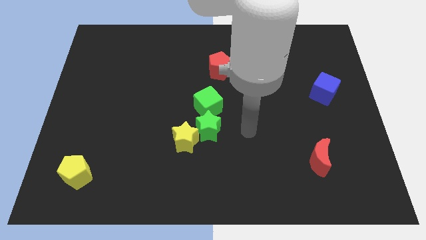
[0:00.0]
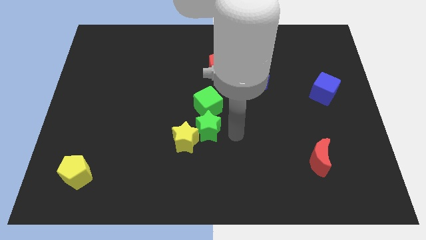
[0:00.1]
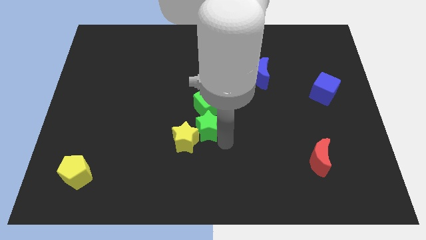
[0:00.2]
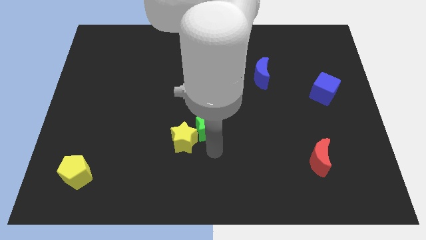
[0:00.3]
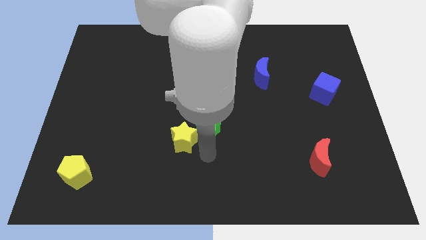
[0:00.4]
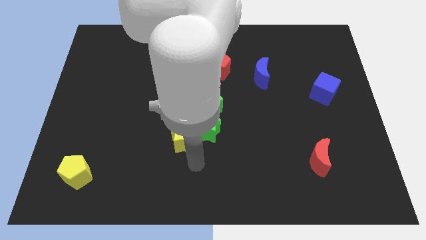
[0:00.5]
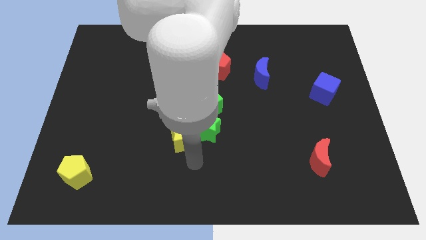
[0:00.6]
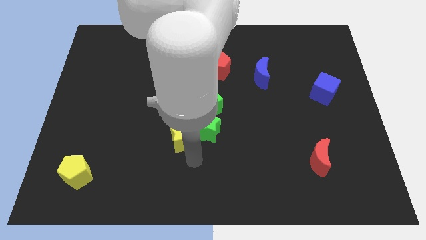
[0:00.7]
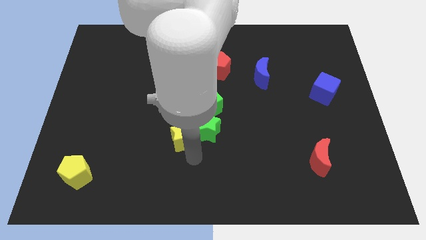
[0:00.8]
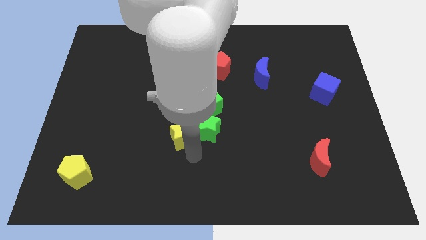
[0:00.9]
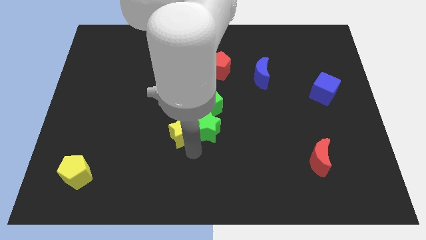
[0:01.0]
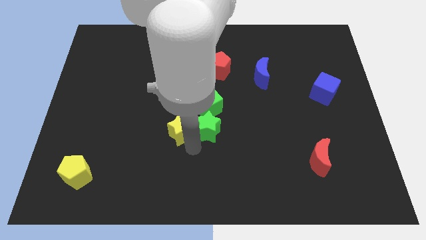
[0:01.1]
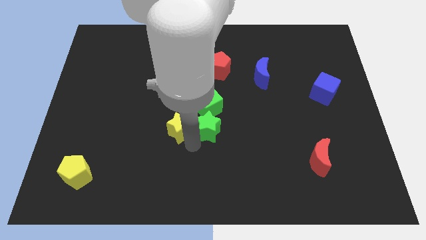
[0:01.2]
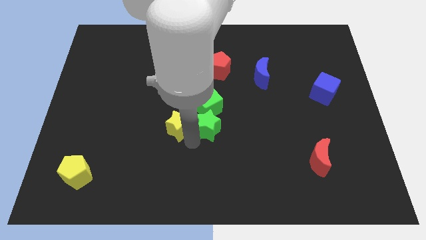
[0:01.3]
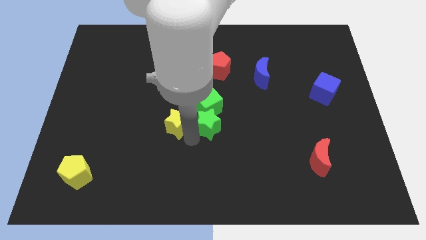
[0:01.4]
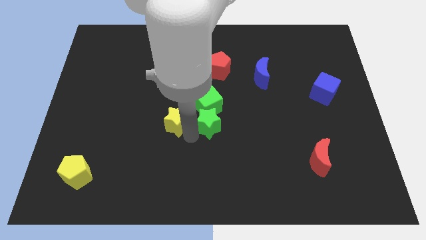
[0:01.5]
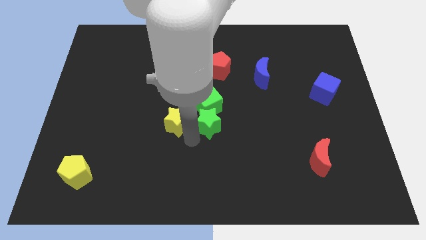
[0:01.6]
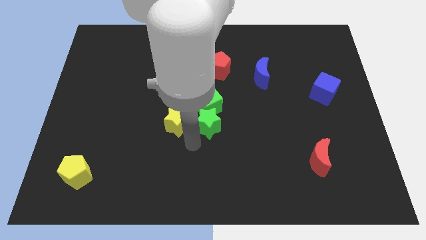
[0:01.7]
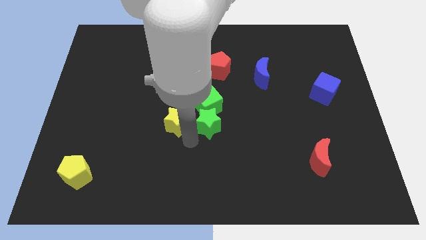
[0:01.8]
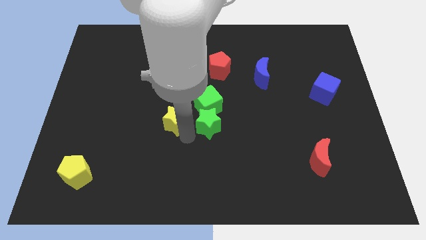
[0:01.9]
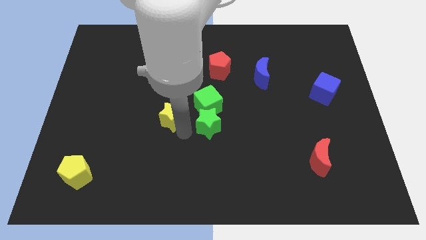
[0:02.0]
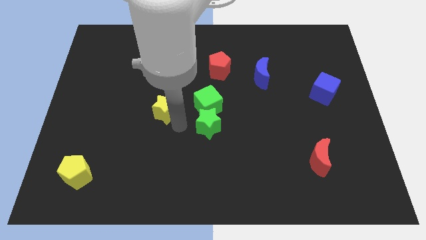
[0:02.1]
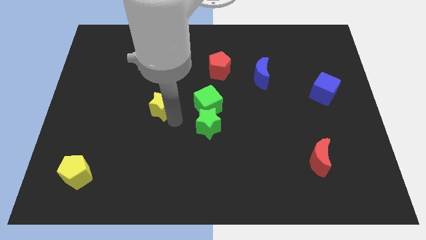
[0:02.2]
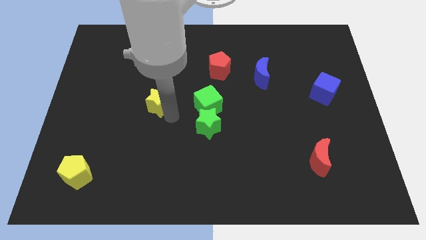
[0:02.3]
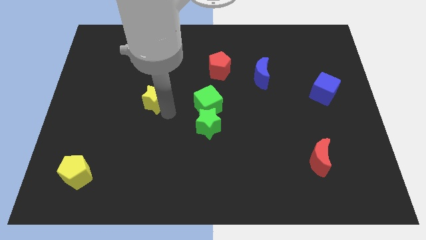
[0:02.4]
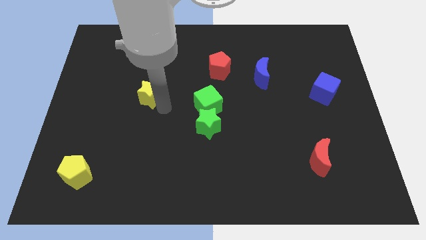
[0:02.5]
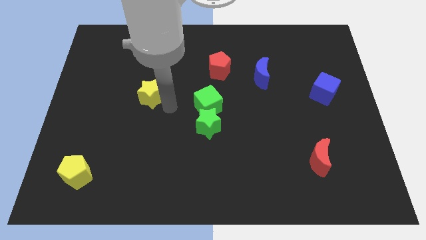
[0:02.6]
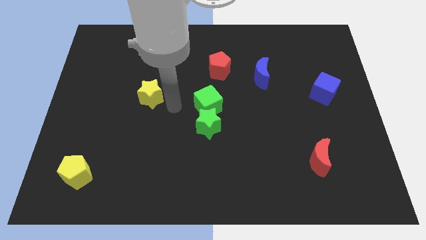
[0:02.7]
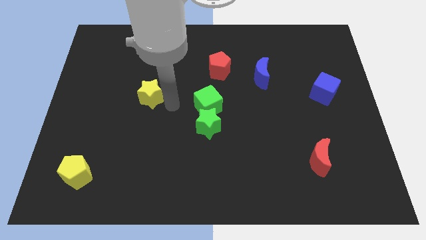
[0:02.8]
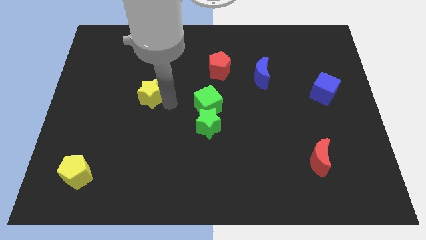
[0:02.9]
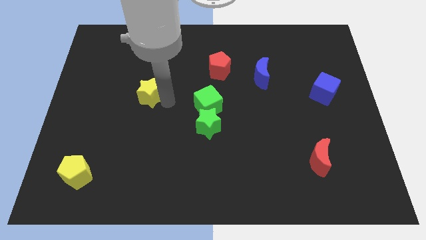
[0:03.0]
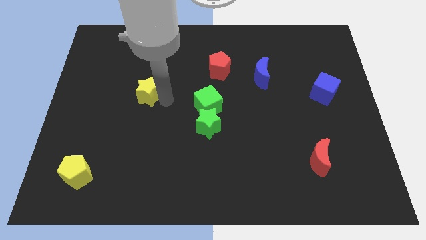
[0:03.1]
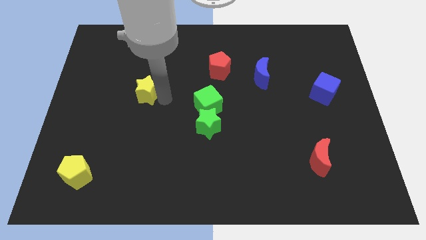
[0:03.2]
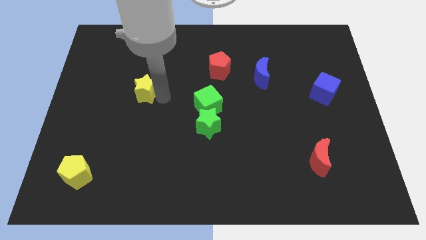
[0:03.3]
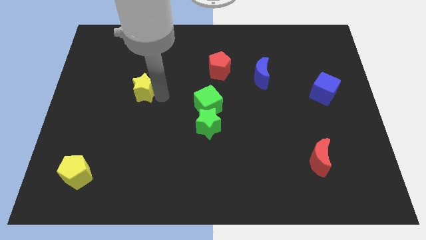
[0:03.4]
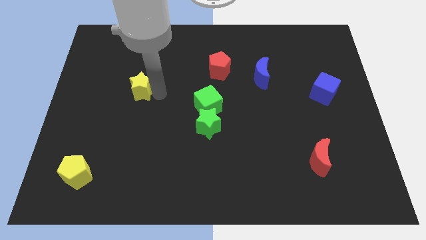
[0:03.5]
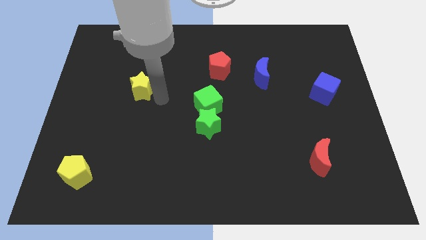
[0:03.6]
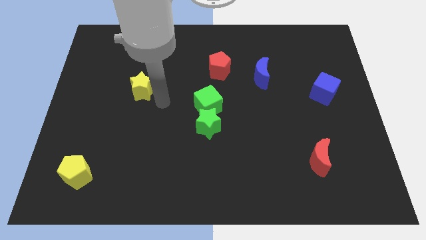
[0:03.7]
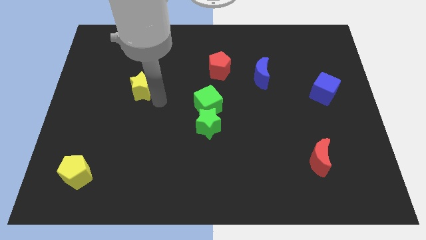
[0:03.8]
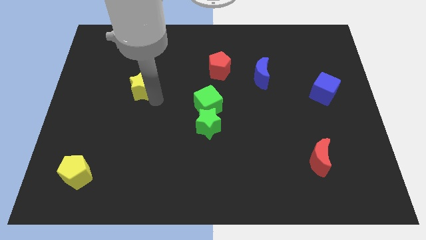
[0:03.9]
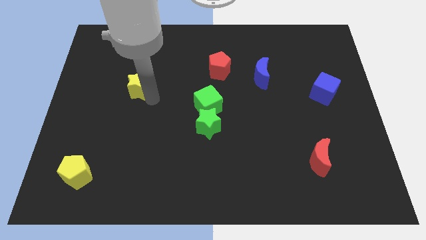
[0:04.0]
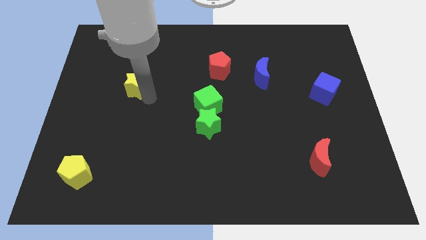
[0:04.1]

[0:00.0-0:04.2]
move the yellow star up and left

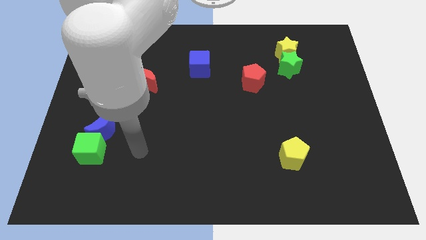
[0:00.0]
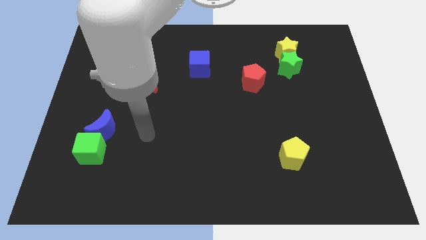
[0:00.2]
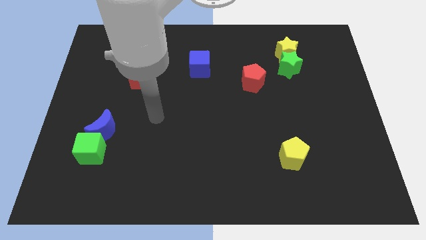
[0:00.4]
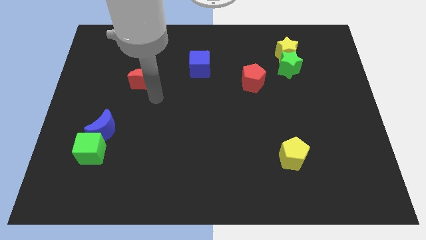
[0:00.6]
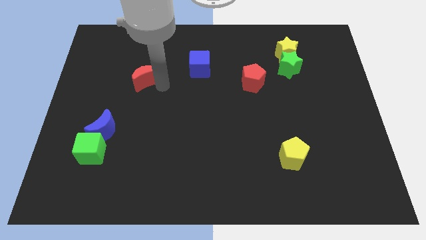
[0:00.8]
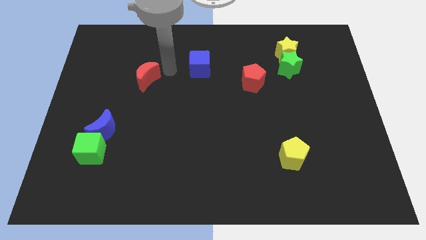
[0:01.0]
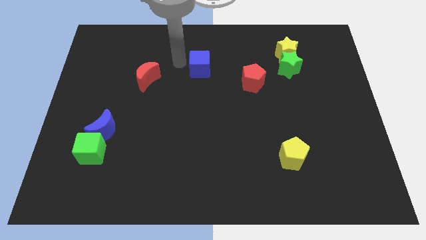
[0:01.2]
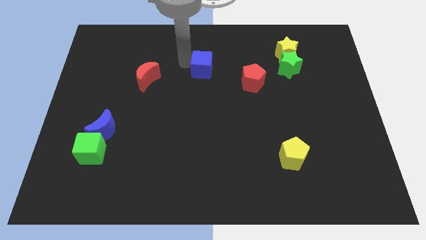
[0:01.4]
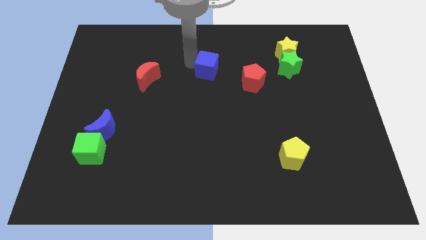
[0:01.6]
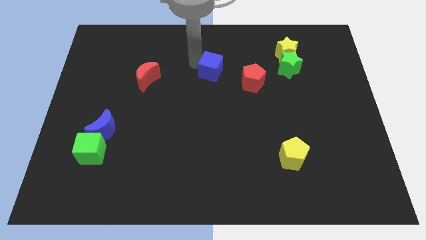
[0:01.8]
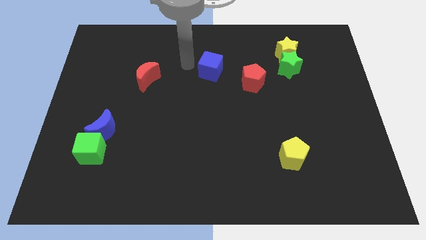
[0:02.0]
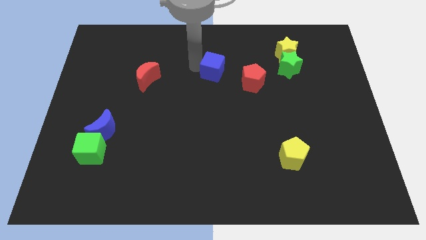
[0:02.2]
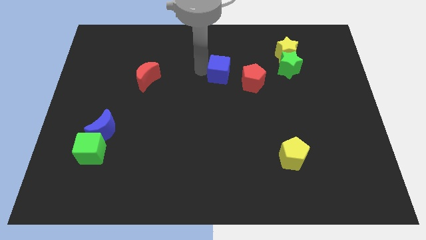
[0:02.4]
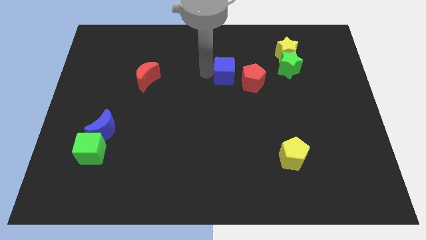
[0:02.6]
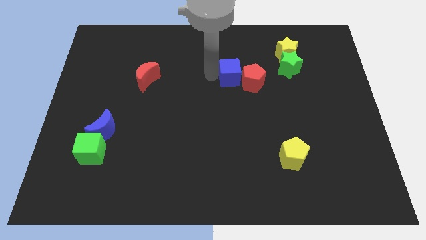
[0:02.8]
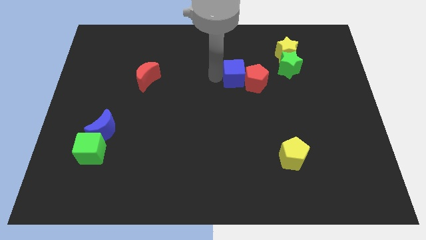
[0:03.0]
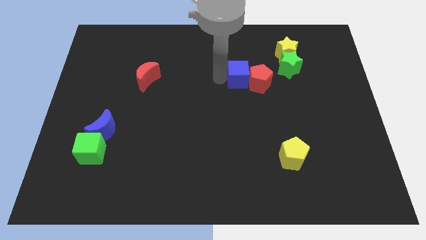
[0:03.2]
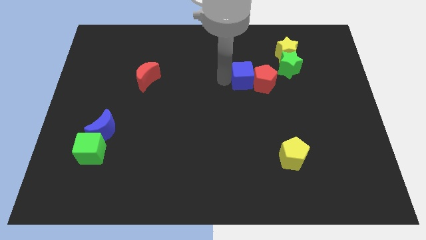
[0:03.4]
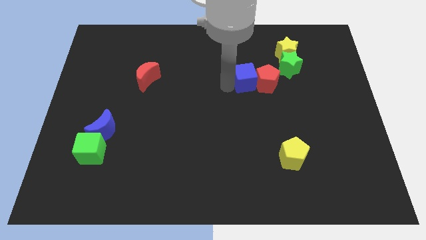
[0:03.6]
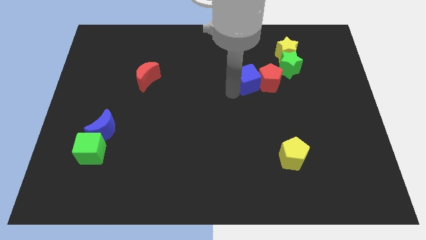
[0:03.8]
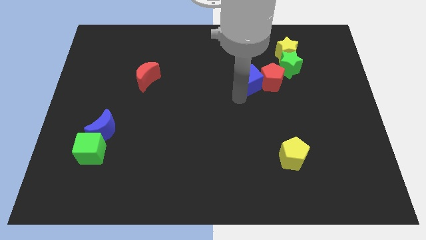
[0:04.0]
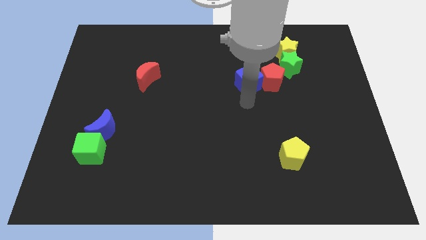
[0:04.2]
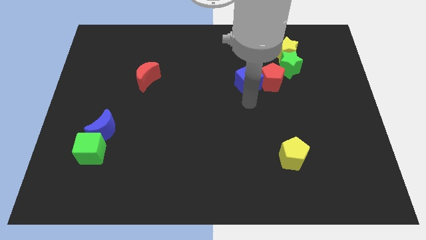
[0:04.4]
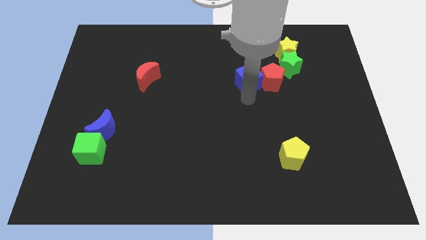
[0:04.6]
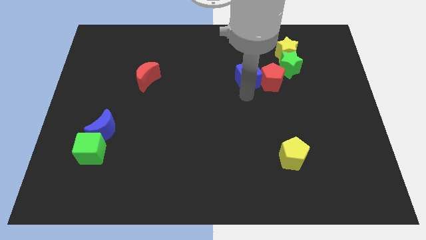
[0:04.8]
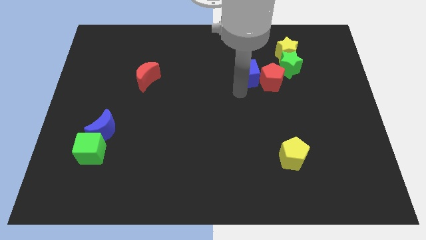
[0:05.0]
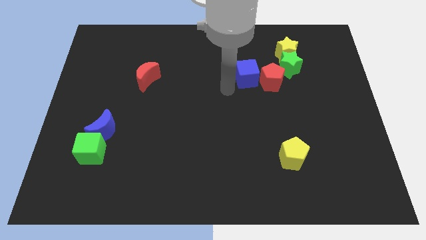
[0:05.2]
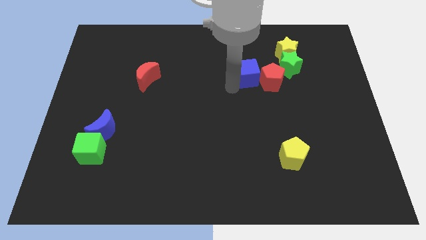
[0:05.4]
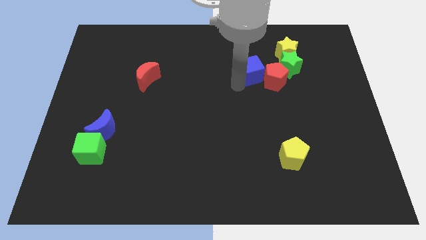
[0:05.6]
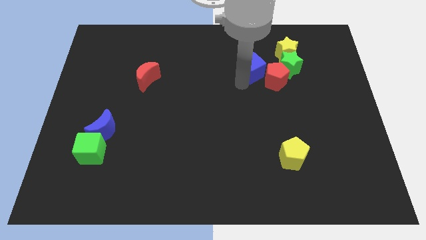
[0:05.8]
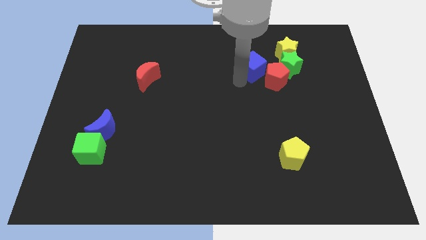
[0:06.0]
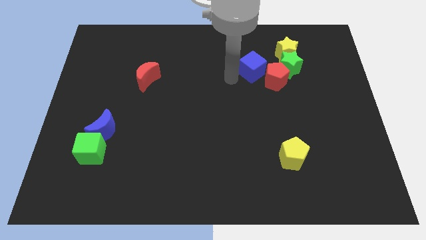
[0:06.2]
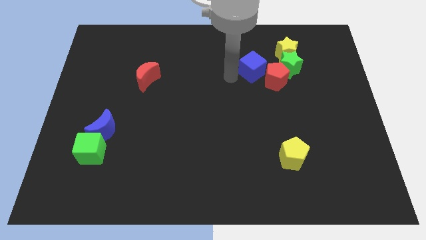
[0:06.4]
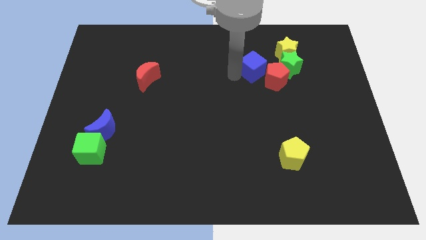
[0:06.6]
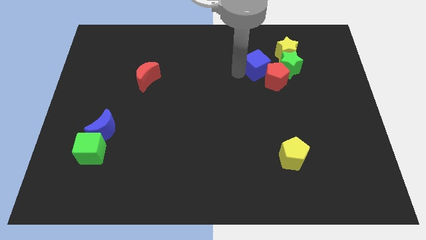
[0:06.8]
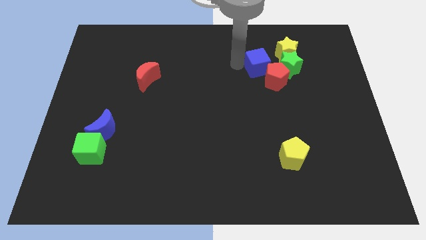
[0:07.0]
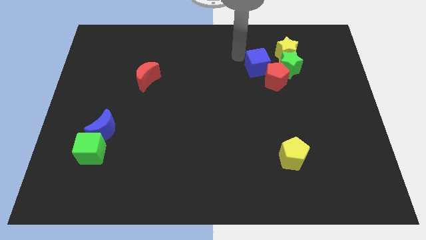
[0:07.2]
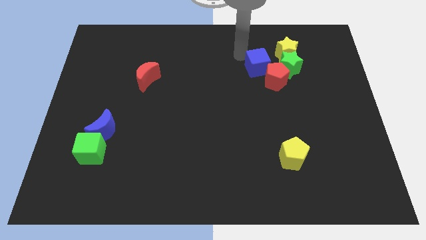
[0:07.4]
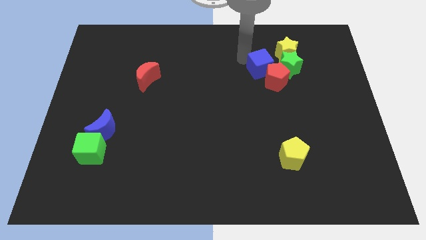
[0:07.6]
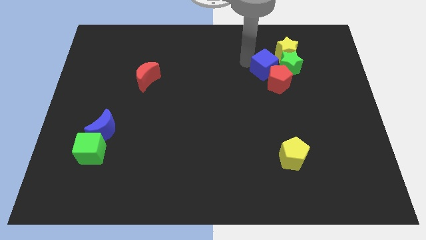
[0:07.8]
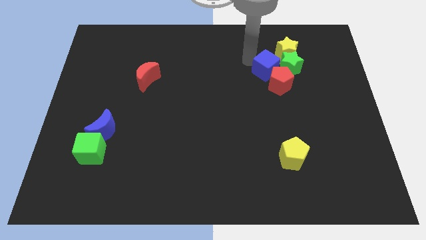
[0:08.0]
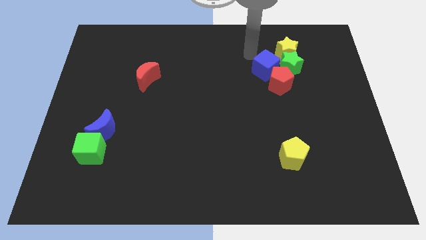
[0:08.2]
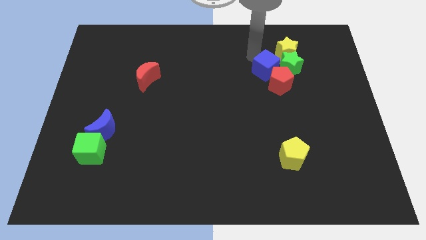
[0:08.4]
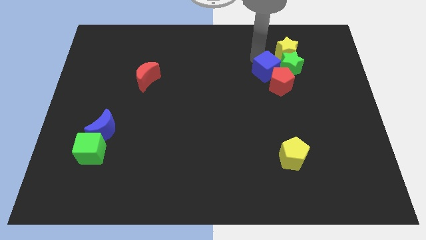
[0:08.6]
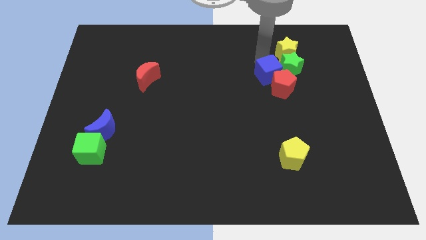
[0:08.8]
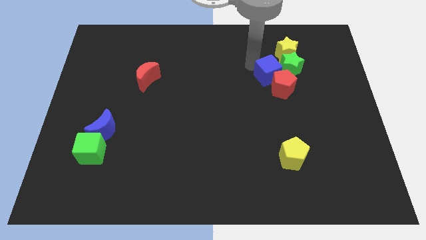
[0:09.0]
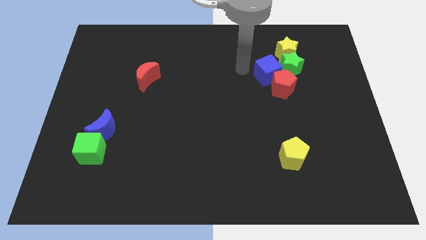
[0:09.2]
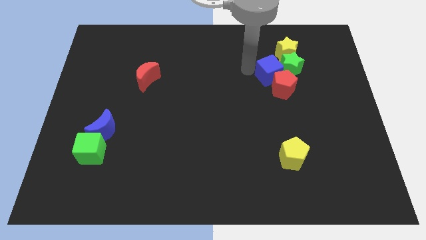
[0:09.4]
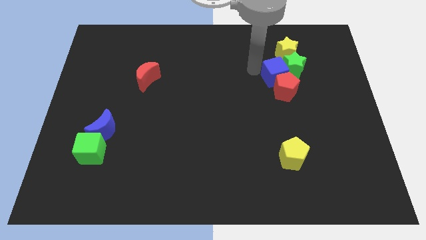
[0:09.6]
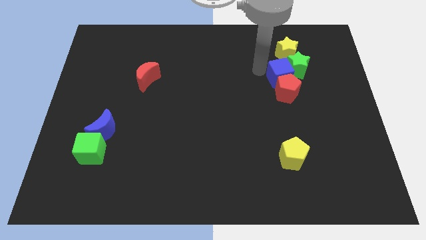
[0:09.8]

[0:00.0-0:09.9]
slide the blue cube to the right
